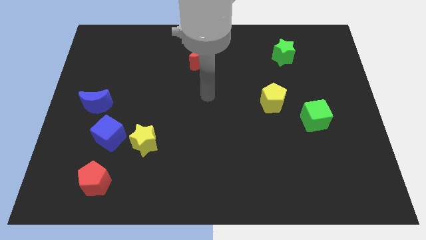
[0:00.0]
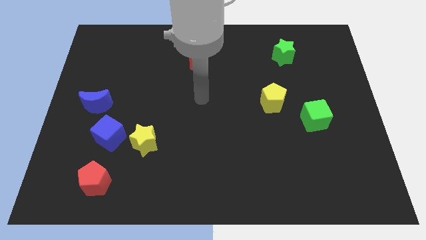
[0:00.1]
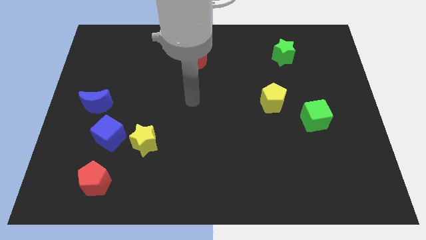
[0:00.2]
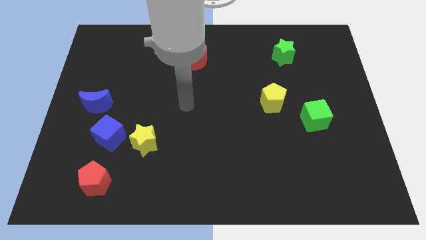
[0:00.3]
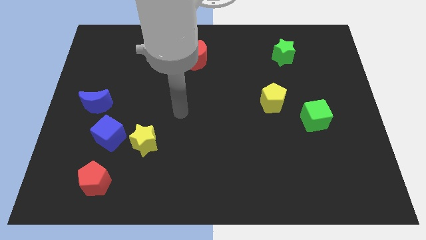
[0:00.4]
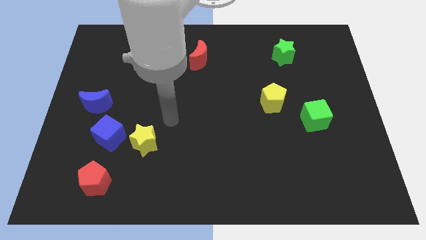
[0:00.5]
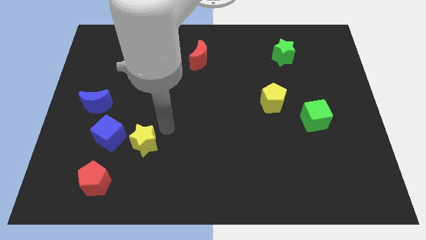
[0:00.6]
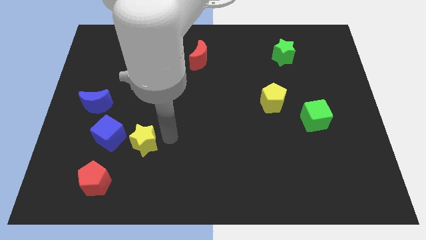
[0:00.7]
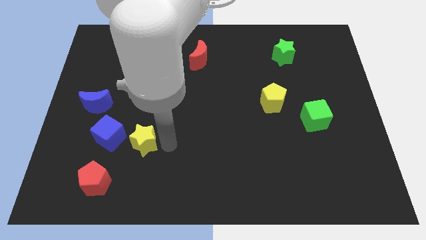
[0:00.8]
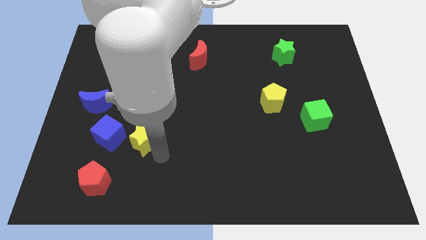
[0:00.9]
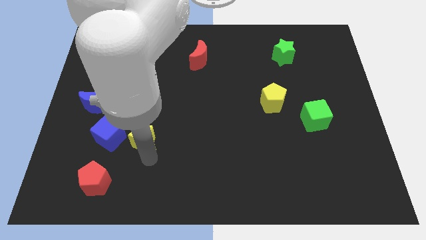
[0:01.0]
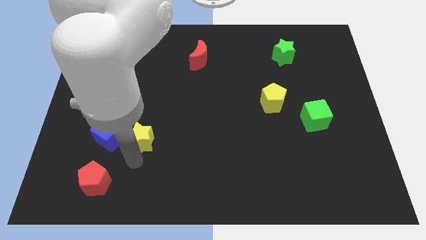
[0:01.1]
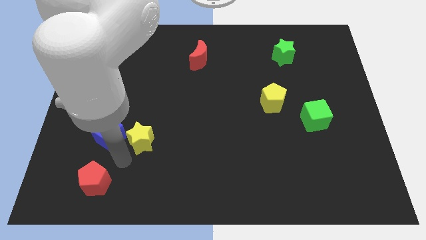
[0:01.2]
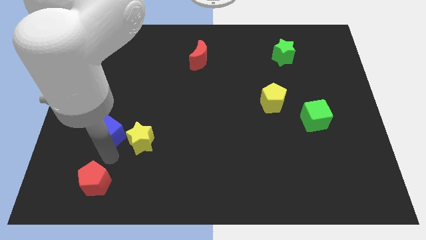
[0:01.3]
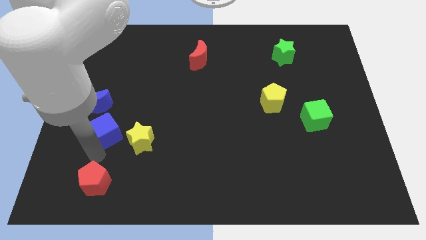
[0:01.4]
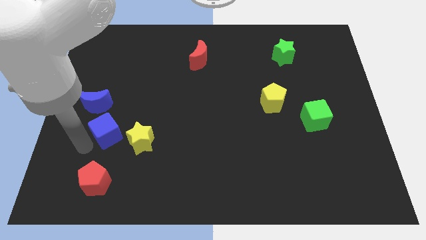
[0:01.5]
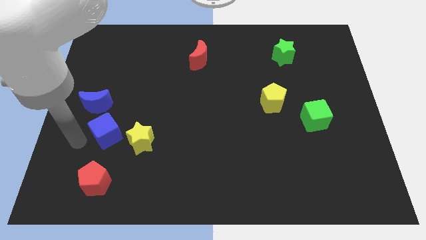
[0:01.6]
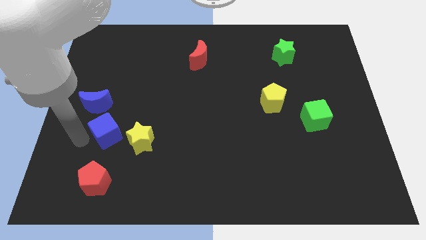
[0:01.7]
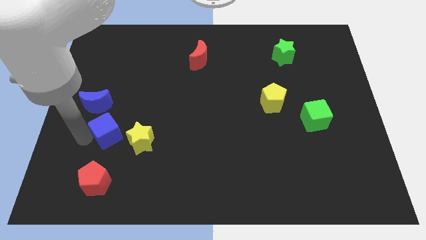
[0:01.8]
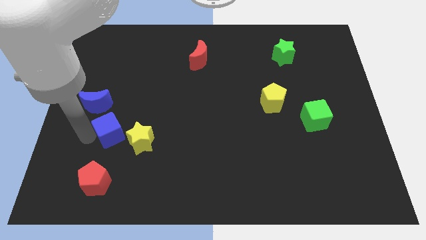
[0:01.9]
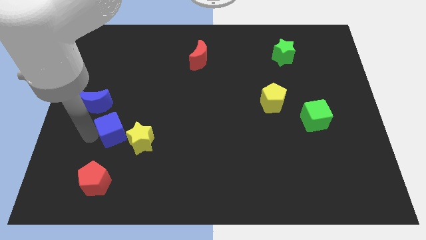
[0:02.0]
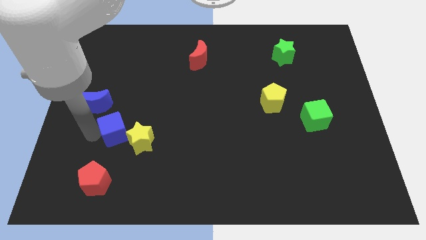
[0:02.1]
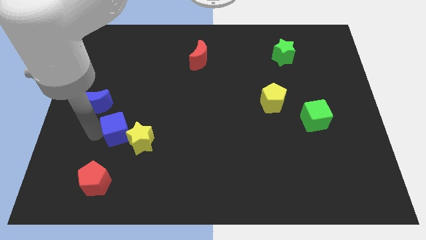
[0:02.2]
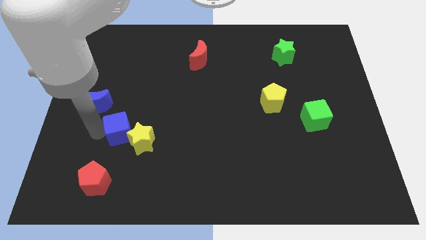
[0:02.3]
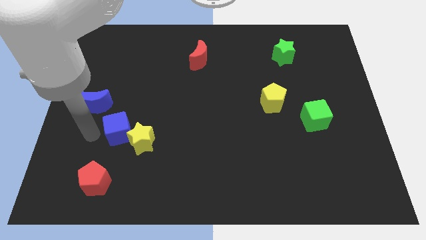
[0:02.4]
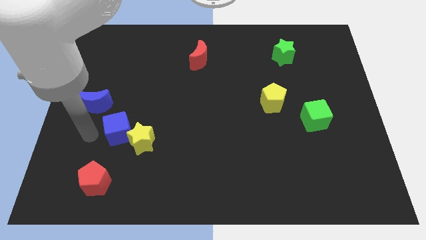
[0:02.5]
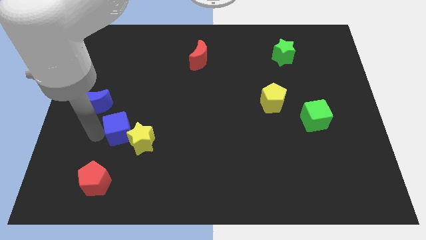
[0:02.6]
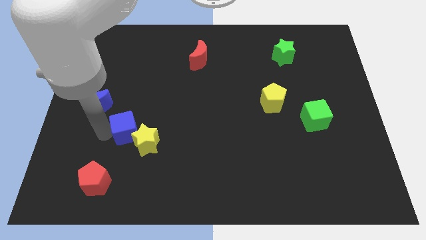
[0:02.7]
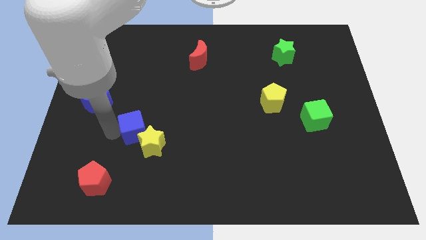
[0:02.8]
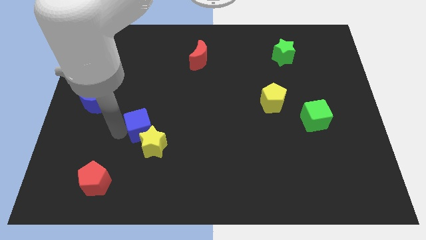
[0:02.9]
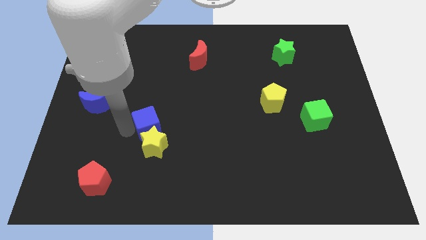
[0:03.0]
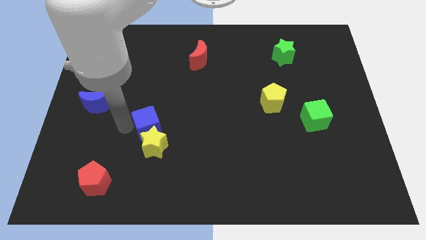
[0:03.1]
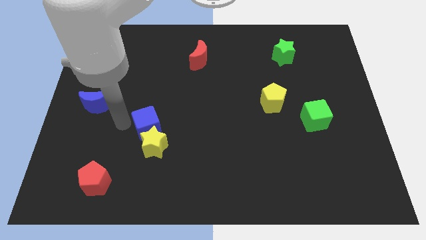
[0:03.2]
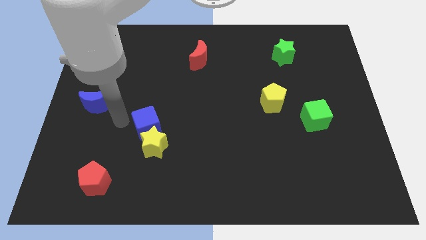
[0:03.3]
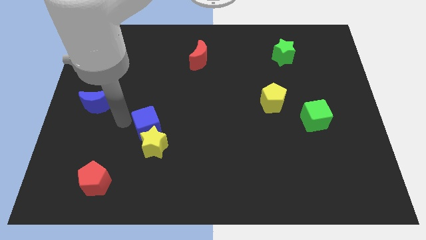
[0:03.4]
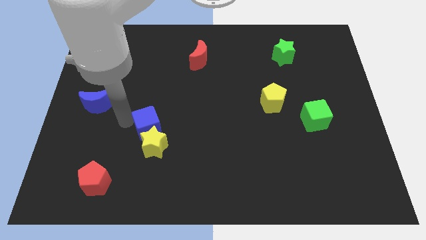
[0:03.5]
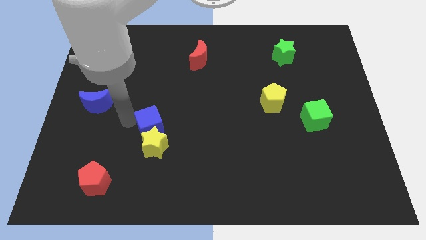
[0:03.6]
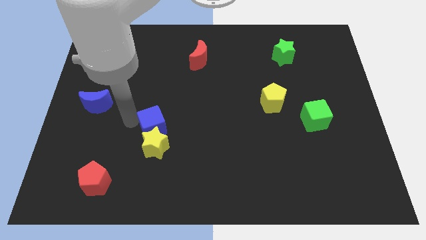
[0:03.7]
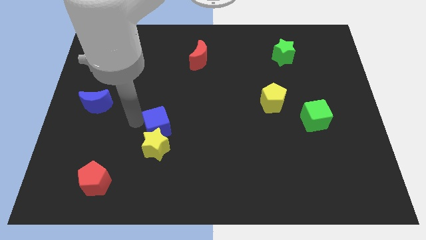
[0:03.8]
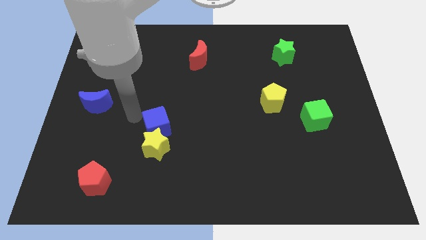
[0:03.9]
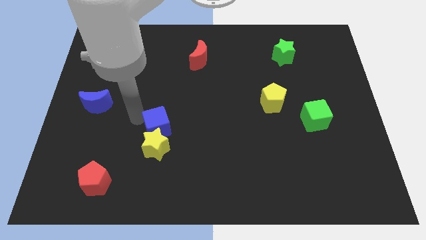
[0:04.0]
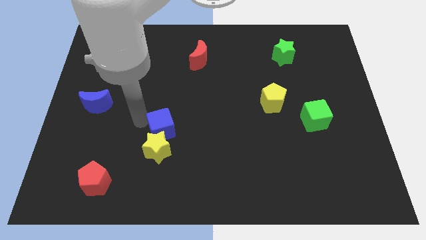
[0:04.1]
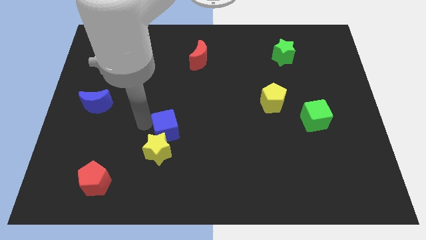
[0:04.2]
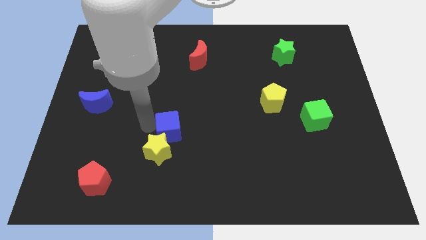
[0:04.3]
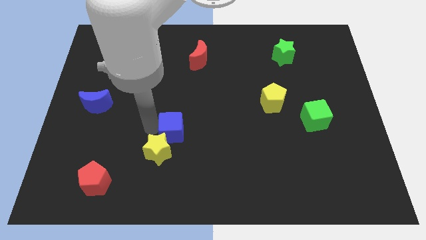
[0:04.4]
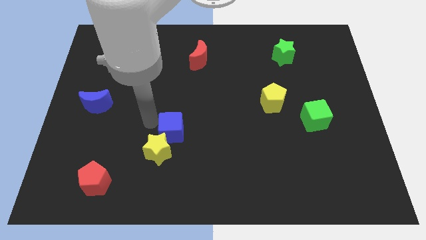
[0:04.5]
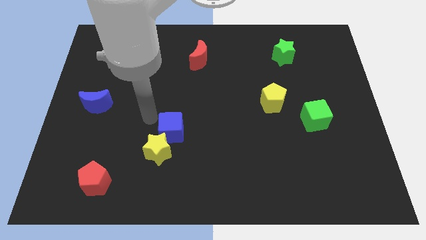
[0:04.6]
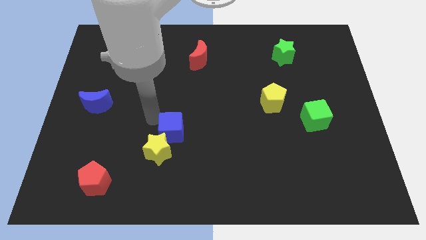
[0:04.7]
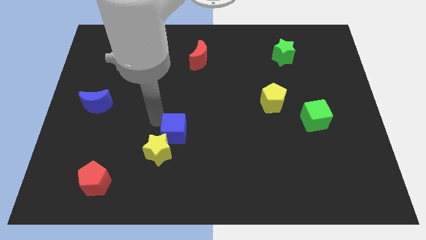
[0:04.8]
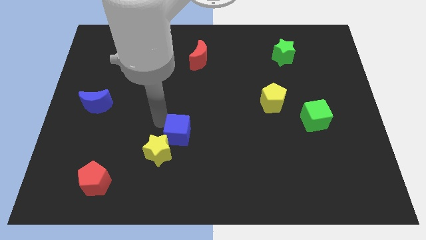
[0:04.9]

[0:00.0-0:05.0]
move the blue cube just right of the yellow star

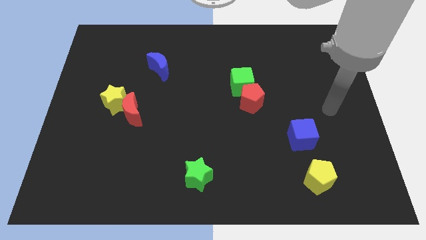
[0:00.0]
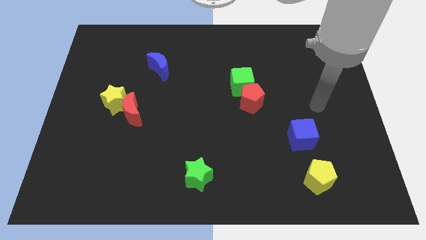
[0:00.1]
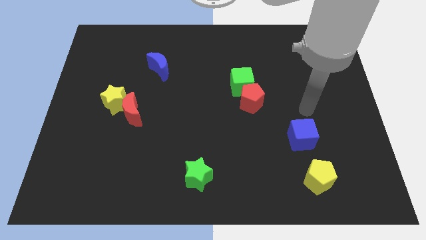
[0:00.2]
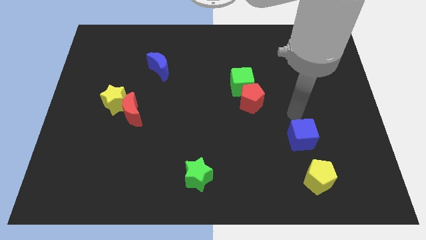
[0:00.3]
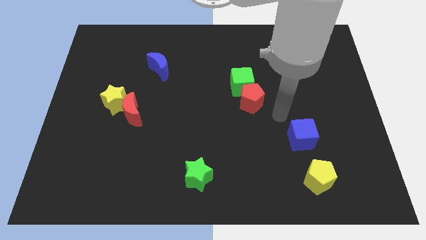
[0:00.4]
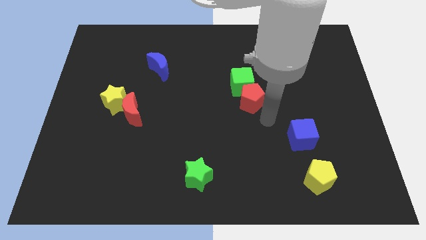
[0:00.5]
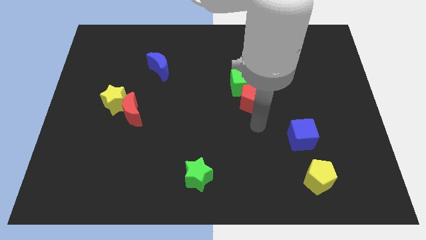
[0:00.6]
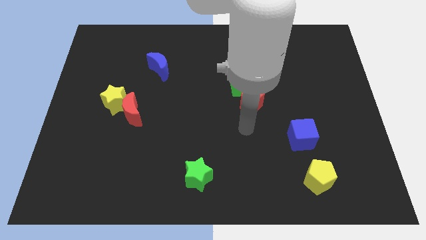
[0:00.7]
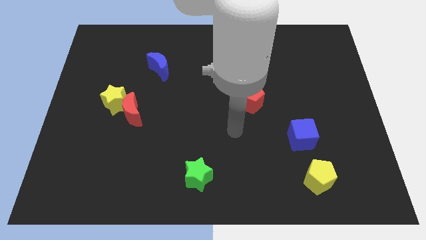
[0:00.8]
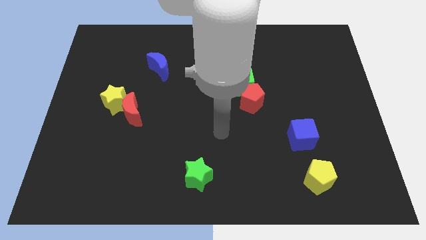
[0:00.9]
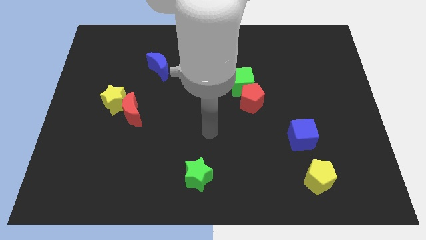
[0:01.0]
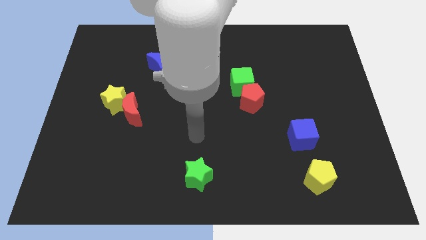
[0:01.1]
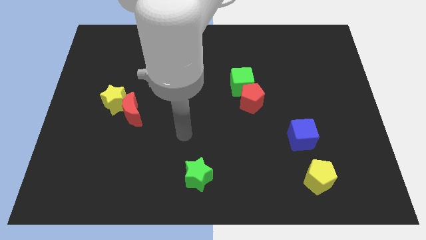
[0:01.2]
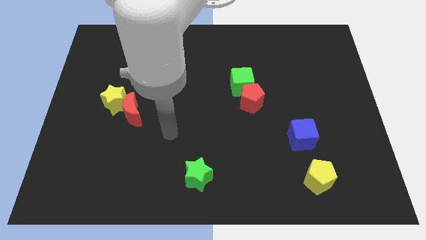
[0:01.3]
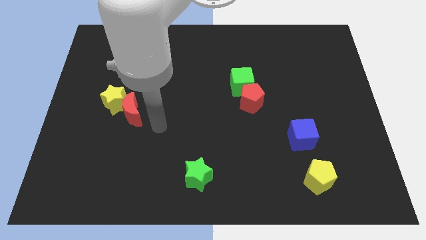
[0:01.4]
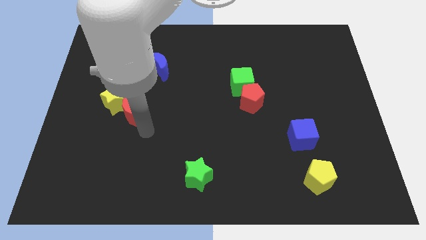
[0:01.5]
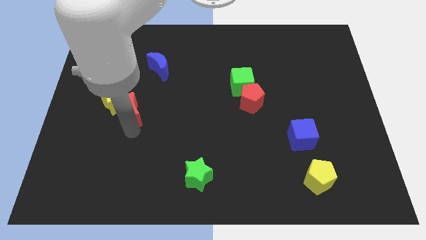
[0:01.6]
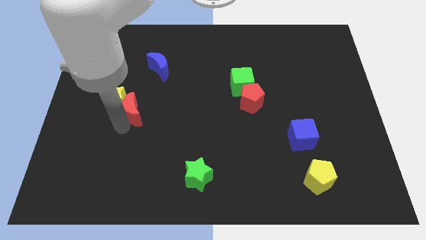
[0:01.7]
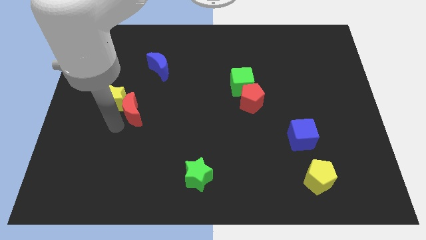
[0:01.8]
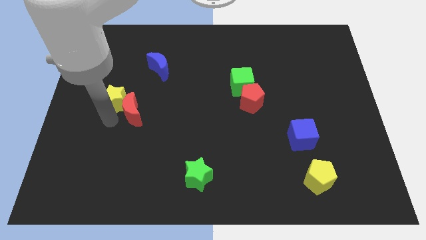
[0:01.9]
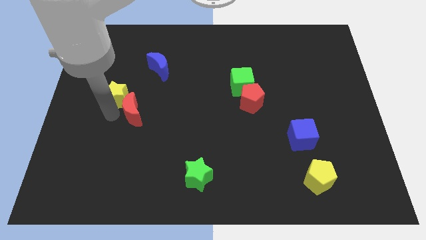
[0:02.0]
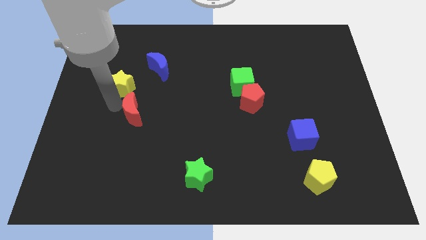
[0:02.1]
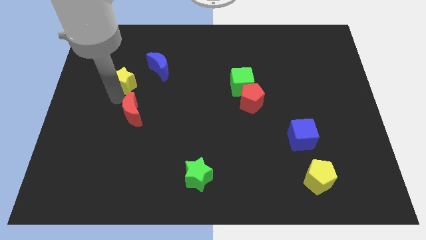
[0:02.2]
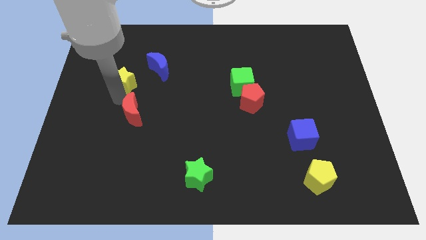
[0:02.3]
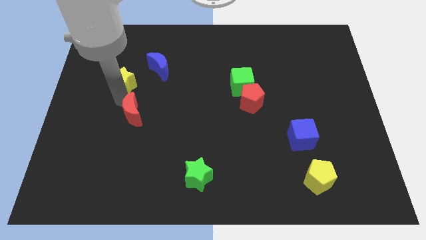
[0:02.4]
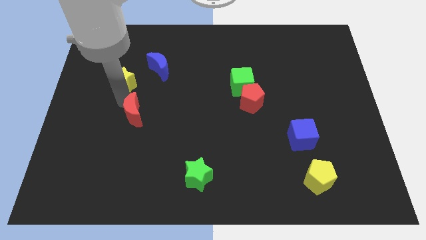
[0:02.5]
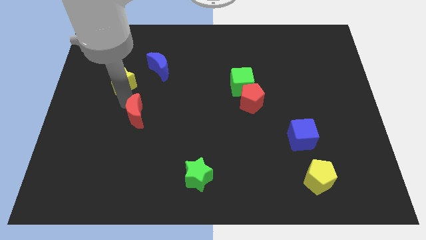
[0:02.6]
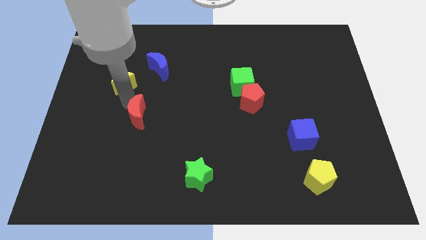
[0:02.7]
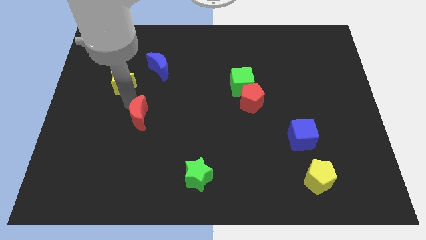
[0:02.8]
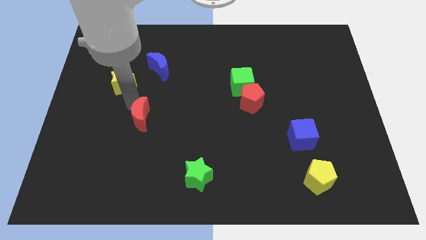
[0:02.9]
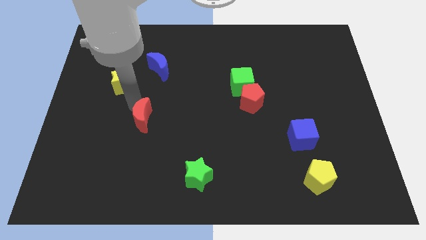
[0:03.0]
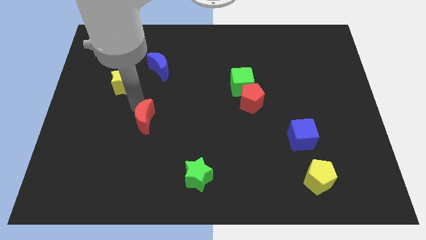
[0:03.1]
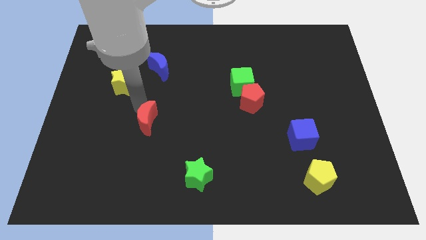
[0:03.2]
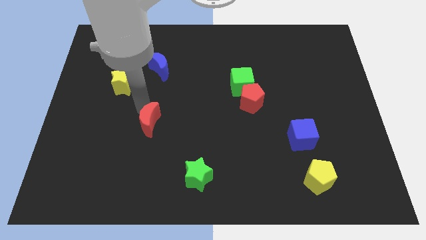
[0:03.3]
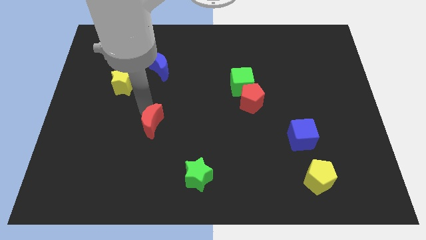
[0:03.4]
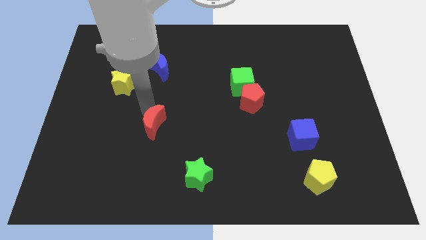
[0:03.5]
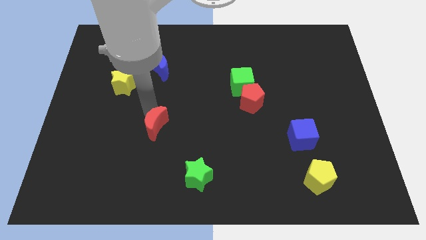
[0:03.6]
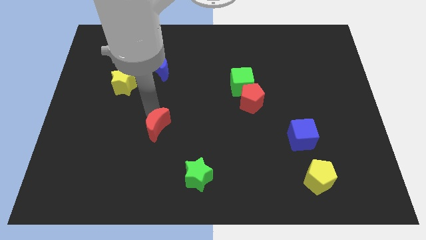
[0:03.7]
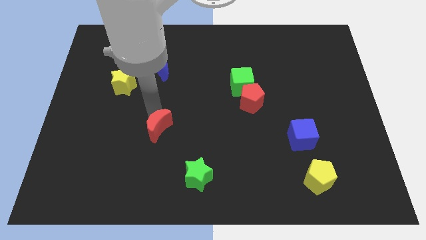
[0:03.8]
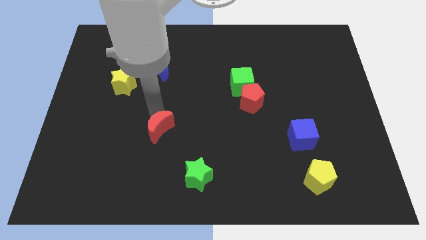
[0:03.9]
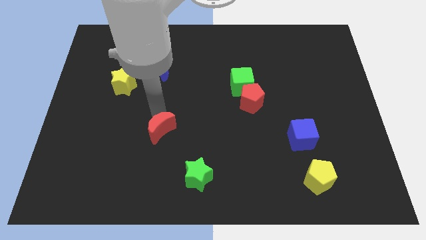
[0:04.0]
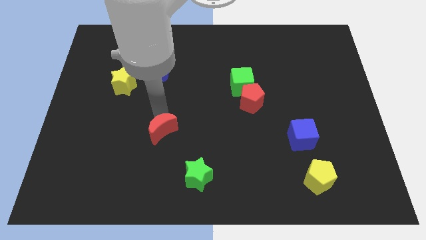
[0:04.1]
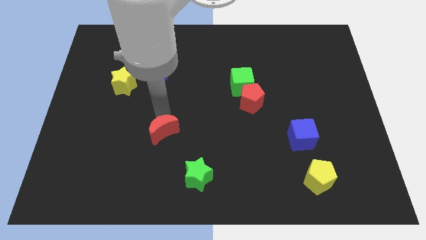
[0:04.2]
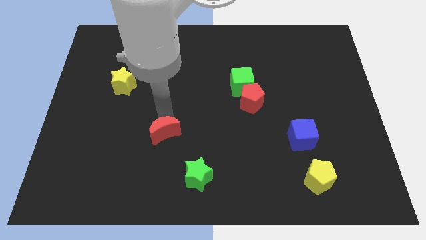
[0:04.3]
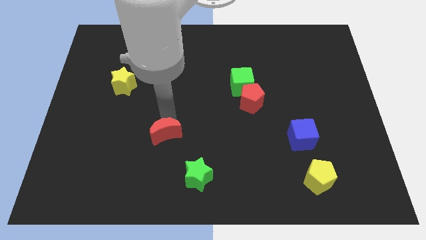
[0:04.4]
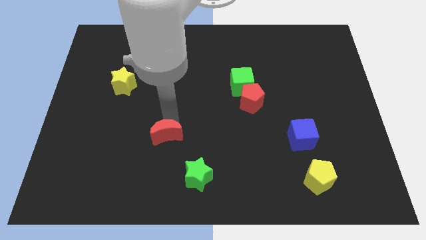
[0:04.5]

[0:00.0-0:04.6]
push the red moon diagonally up and to the left of the green star
